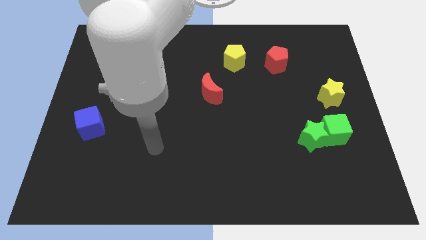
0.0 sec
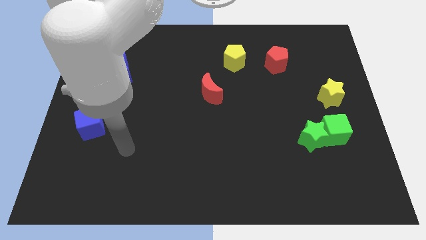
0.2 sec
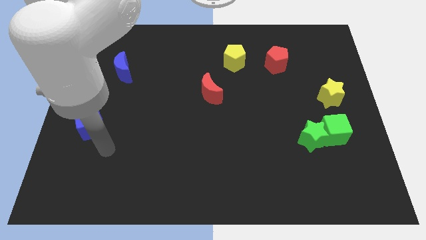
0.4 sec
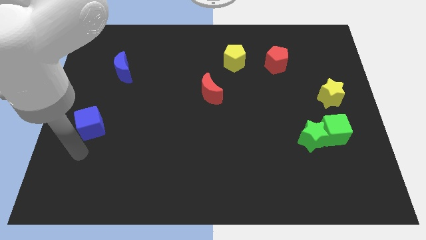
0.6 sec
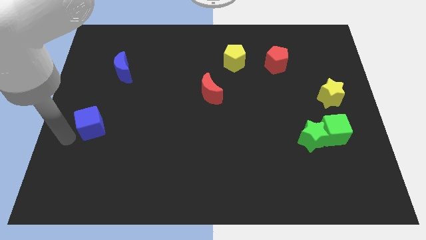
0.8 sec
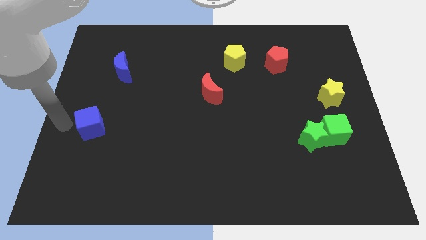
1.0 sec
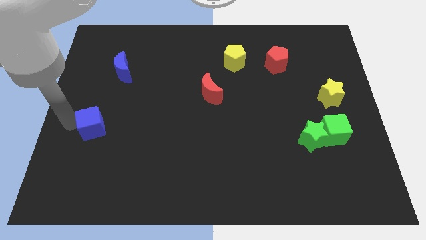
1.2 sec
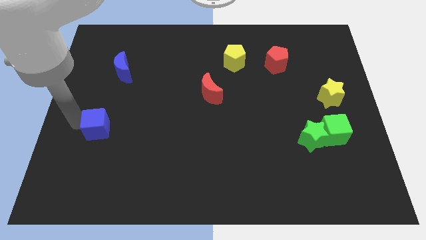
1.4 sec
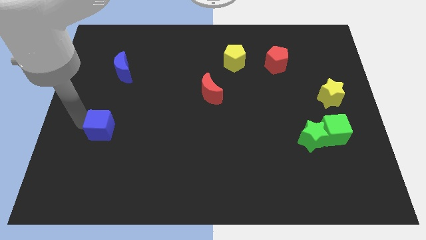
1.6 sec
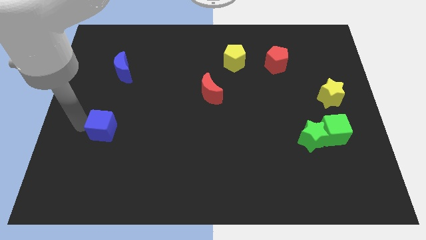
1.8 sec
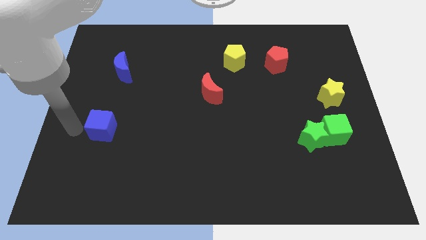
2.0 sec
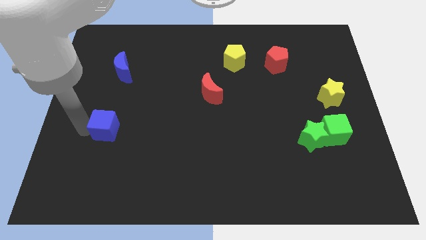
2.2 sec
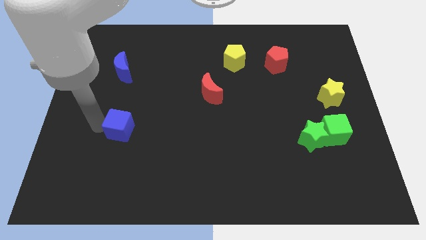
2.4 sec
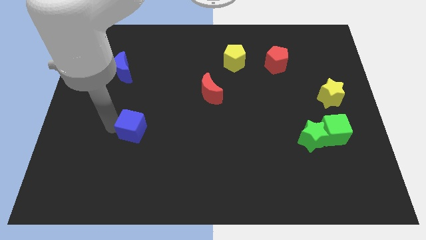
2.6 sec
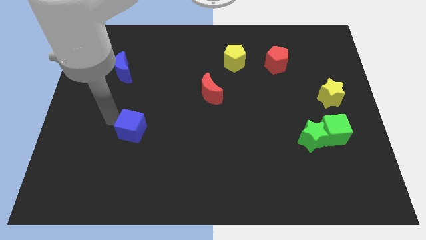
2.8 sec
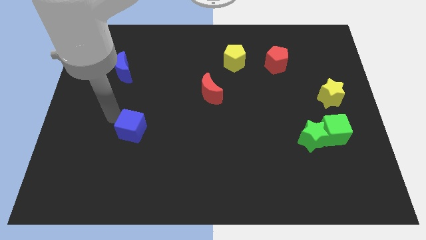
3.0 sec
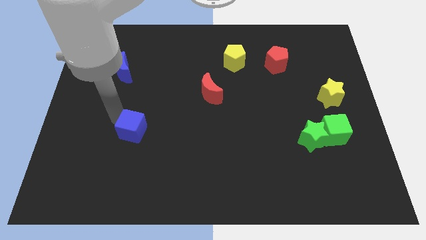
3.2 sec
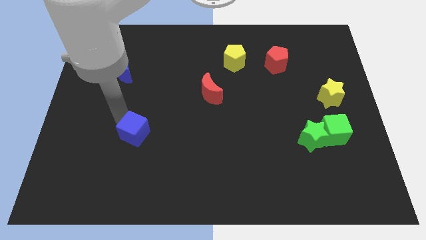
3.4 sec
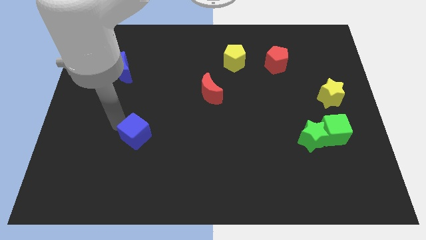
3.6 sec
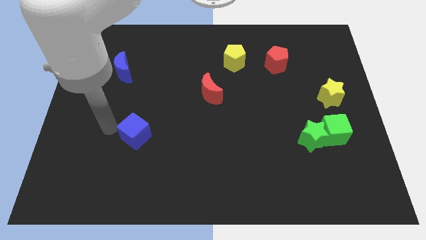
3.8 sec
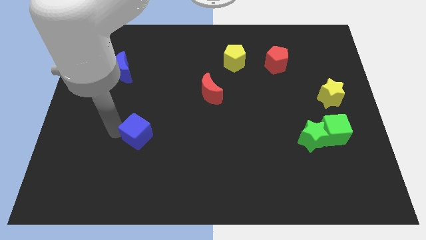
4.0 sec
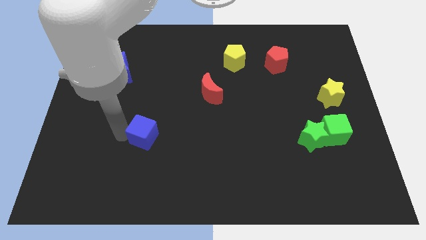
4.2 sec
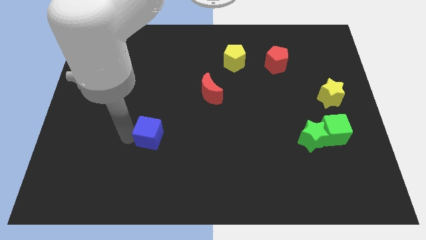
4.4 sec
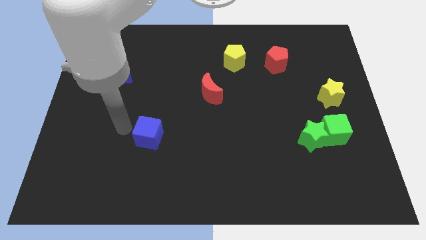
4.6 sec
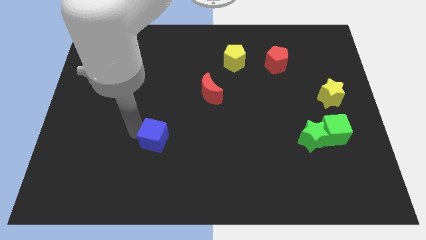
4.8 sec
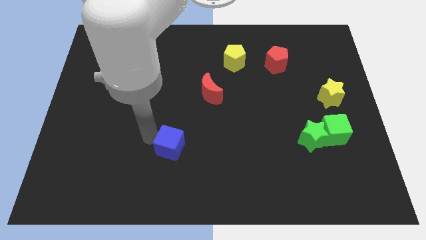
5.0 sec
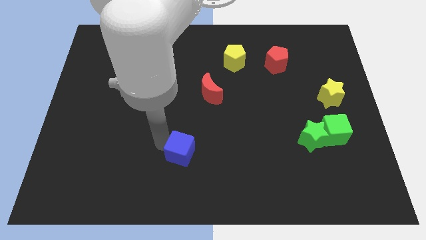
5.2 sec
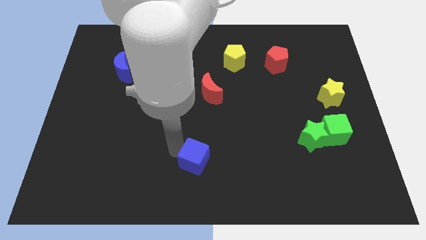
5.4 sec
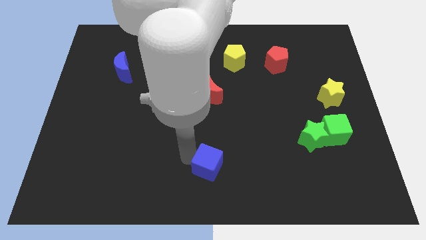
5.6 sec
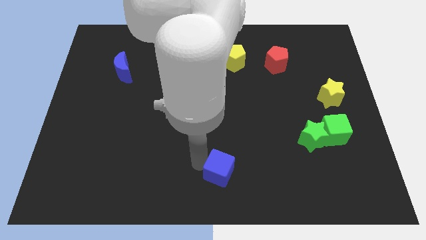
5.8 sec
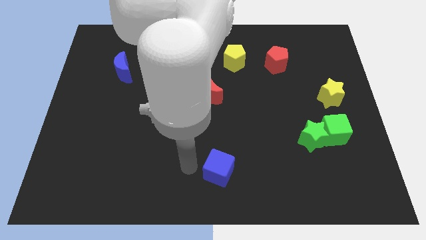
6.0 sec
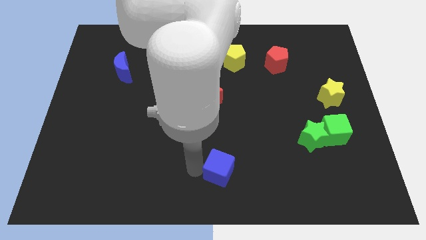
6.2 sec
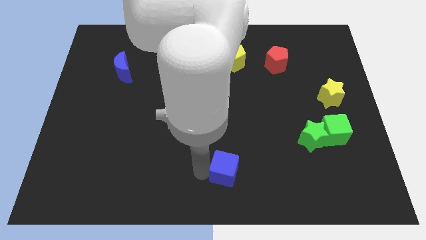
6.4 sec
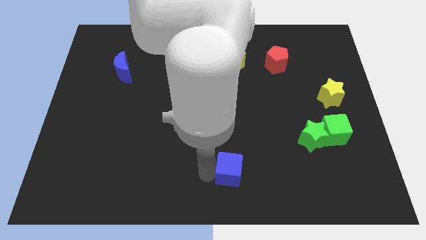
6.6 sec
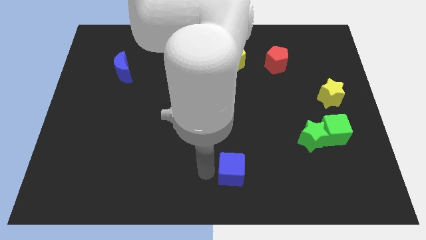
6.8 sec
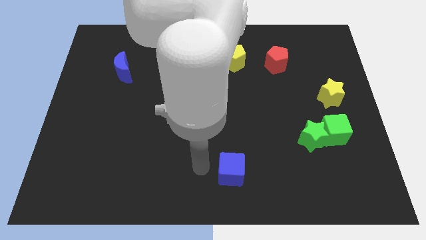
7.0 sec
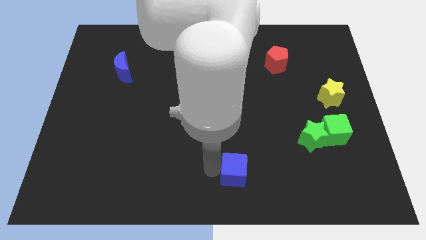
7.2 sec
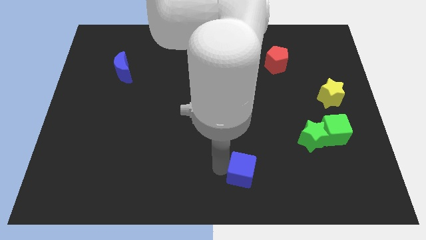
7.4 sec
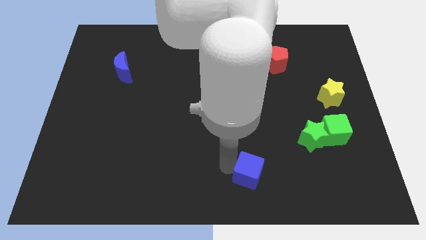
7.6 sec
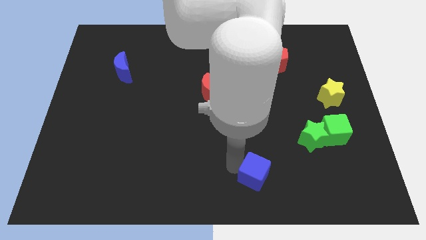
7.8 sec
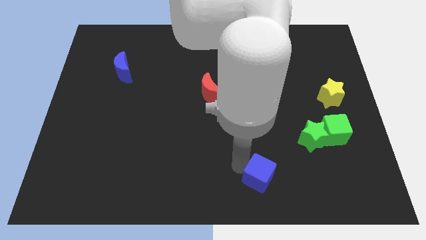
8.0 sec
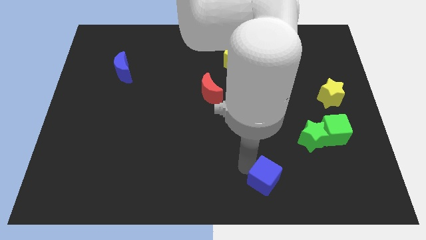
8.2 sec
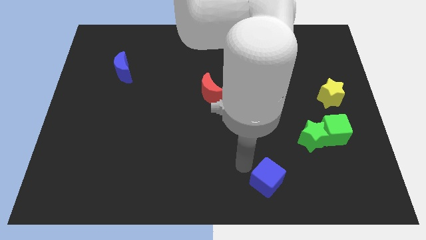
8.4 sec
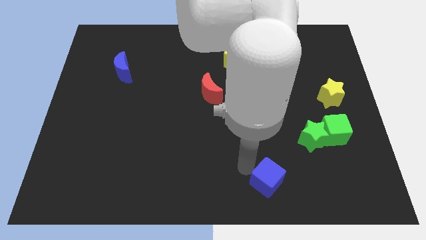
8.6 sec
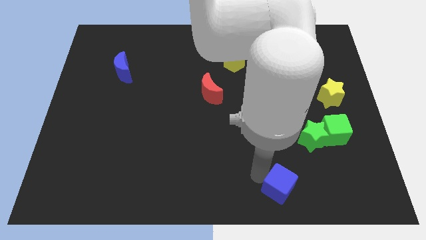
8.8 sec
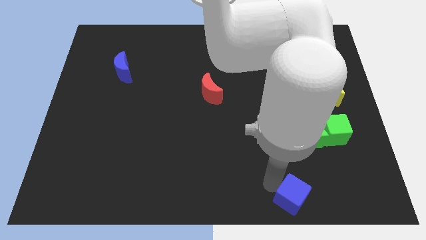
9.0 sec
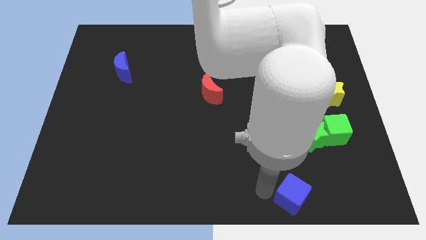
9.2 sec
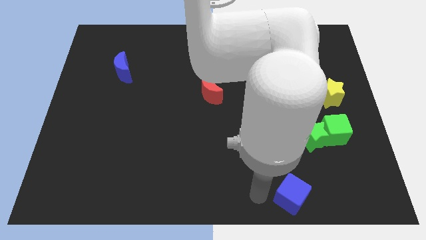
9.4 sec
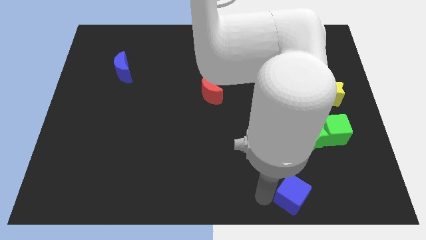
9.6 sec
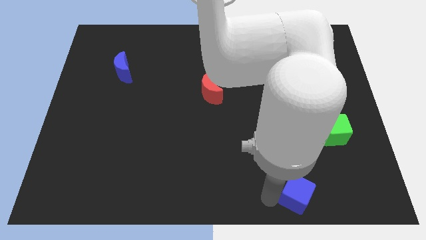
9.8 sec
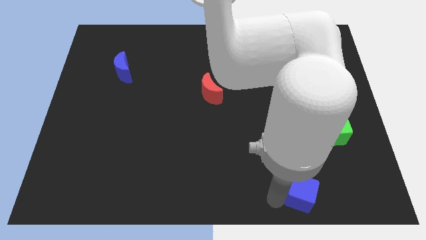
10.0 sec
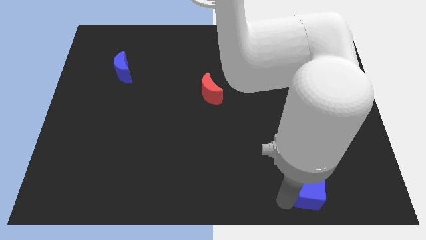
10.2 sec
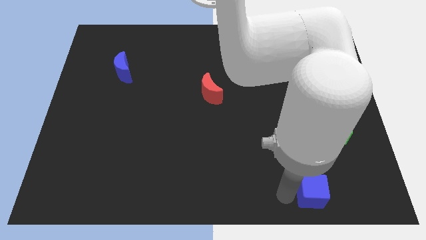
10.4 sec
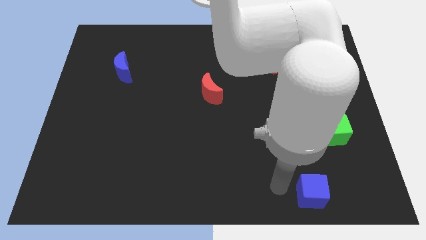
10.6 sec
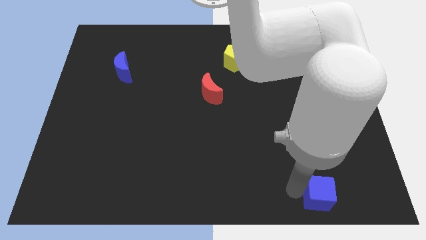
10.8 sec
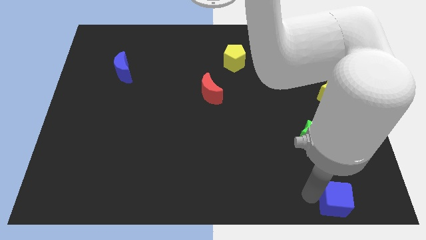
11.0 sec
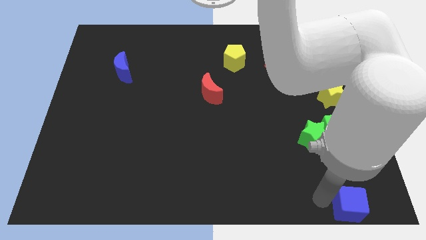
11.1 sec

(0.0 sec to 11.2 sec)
move the blue cube to the lower right corner

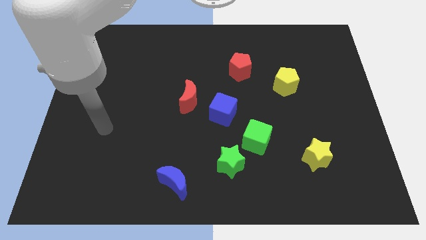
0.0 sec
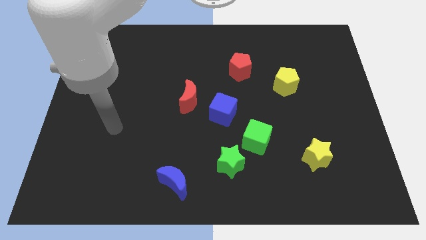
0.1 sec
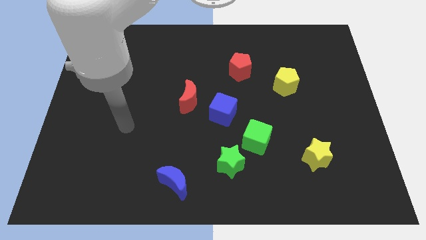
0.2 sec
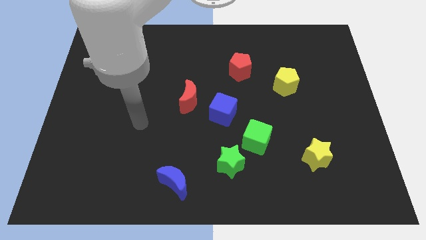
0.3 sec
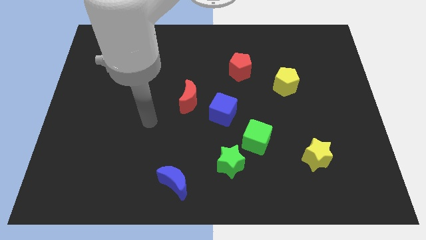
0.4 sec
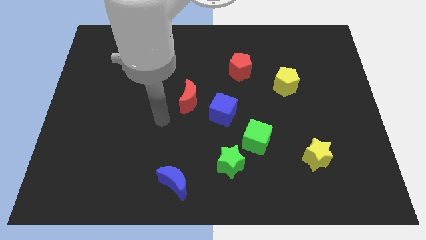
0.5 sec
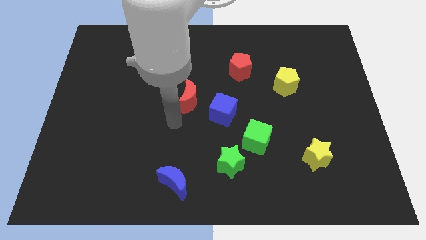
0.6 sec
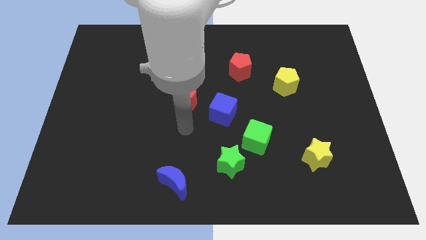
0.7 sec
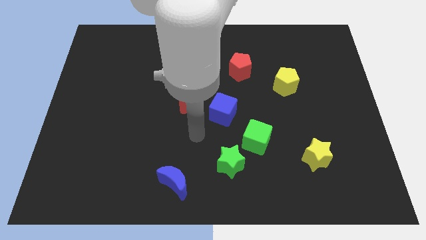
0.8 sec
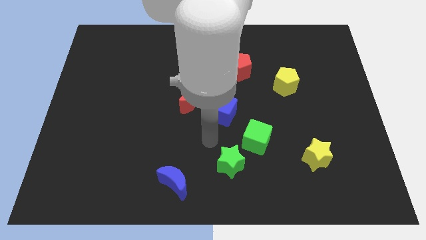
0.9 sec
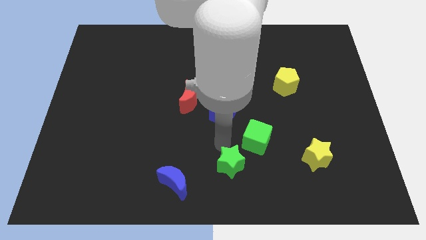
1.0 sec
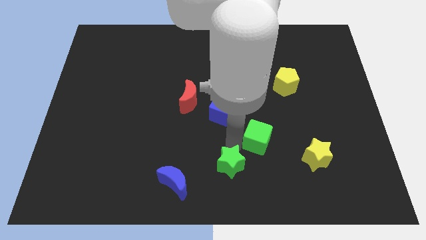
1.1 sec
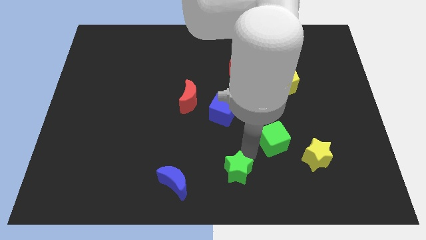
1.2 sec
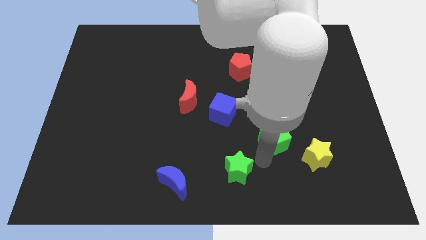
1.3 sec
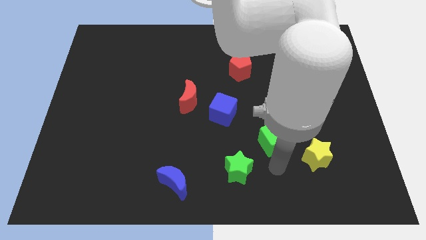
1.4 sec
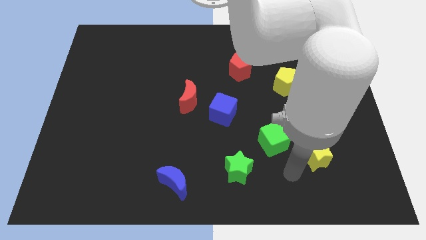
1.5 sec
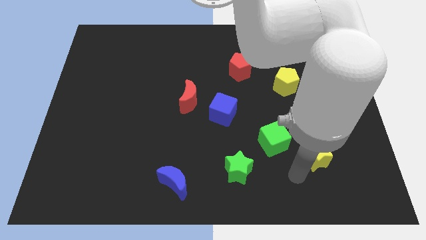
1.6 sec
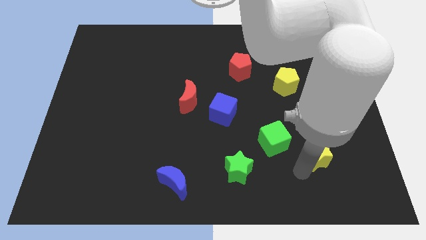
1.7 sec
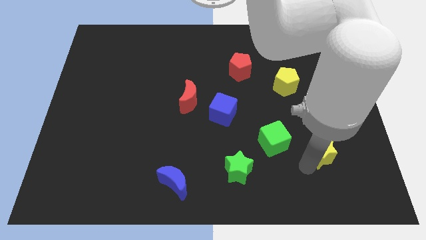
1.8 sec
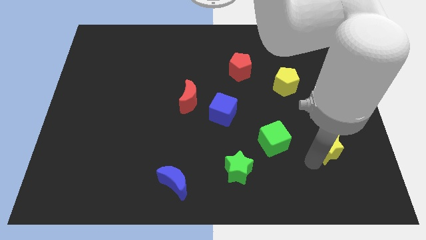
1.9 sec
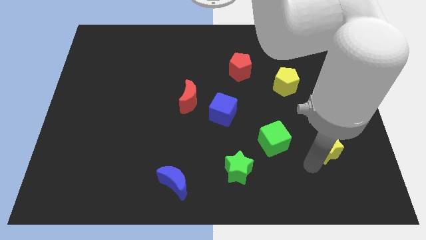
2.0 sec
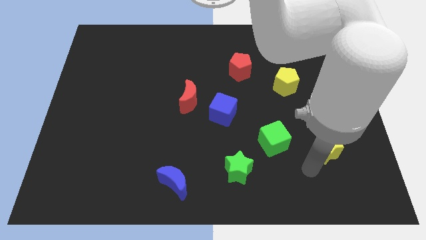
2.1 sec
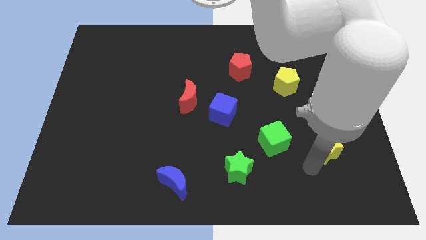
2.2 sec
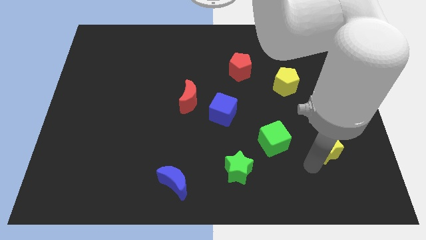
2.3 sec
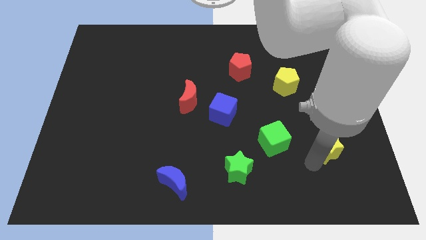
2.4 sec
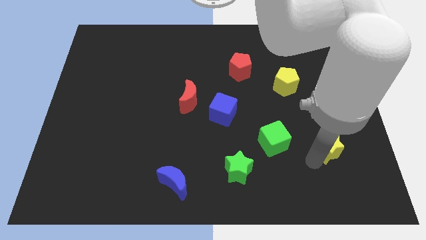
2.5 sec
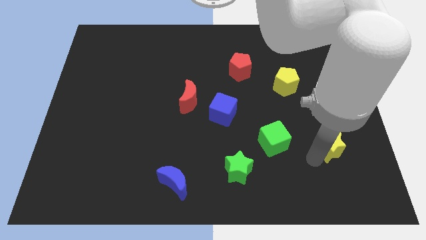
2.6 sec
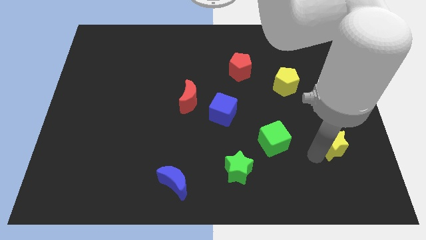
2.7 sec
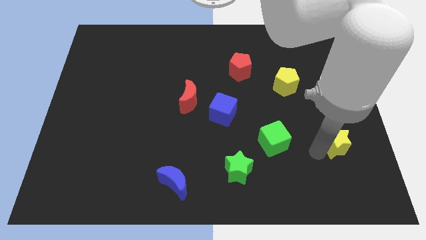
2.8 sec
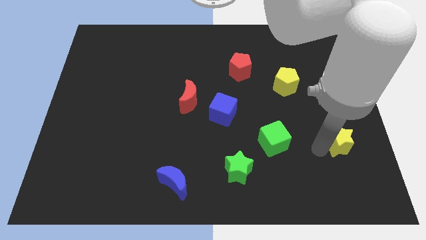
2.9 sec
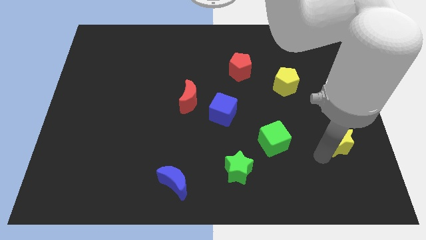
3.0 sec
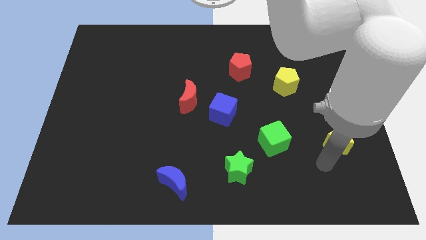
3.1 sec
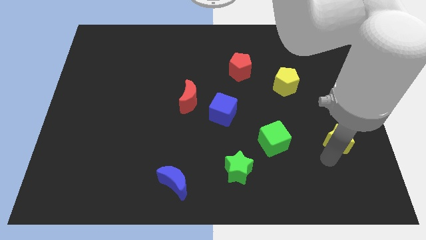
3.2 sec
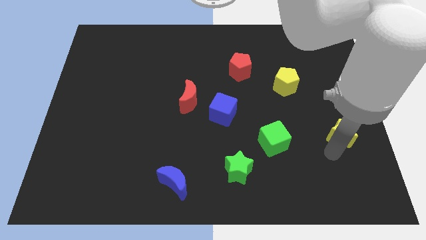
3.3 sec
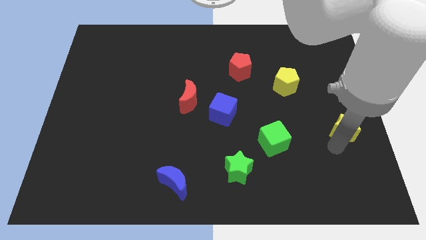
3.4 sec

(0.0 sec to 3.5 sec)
slide the yellow star to the right side of the board
